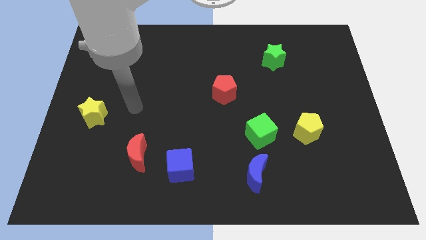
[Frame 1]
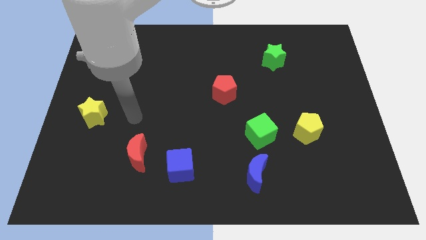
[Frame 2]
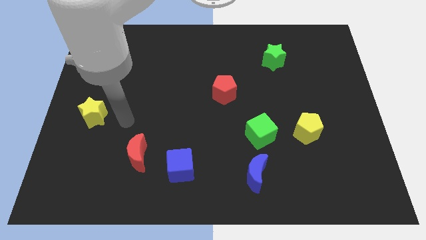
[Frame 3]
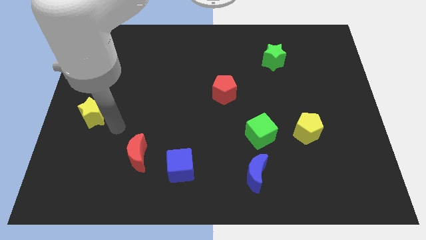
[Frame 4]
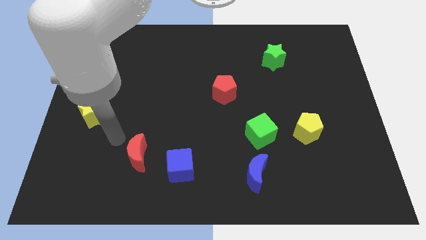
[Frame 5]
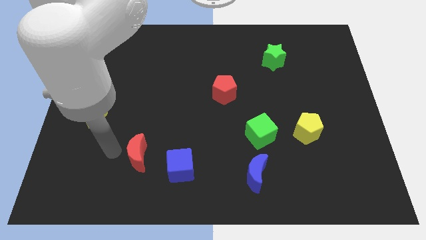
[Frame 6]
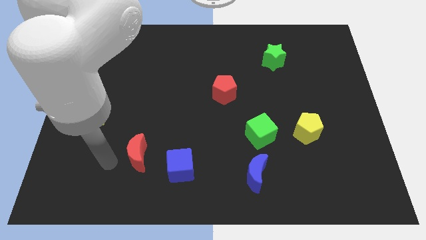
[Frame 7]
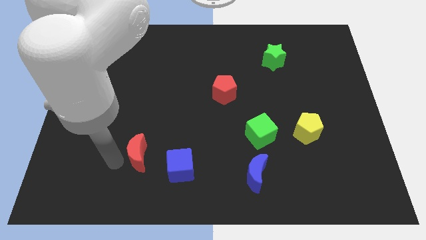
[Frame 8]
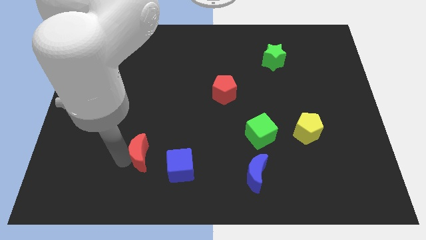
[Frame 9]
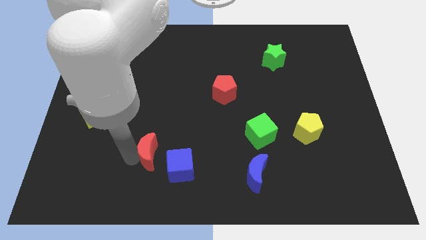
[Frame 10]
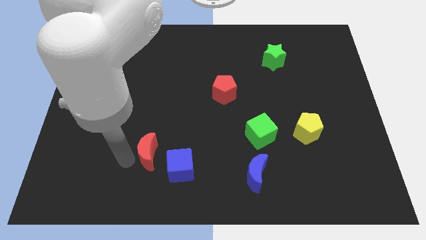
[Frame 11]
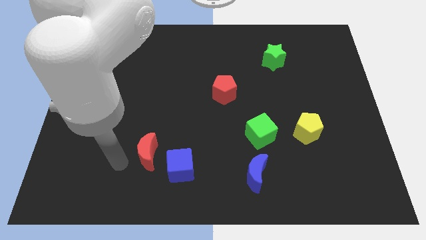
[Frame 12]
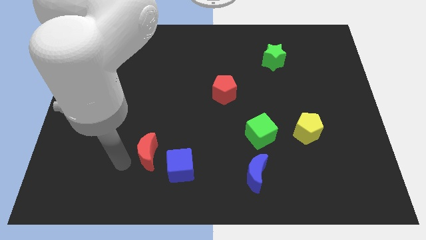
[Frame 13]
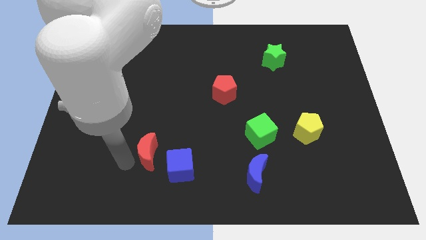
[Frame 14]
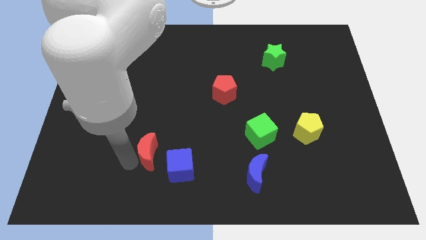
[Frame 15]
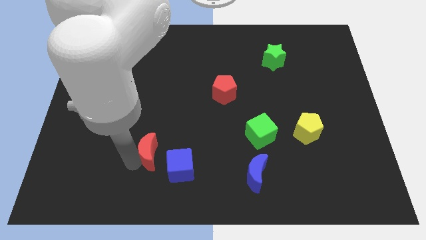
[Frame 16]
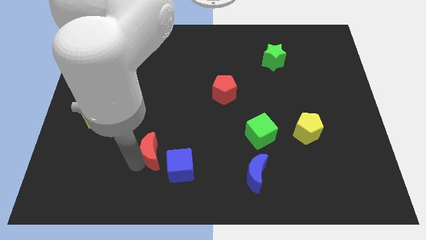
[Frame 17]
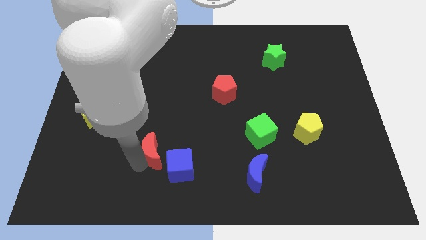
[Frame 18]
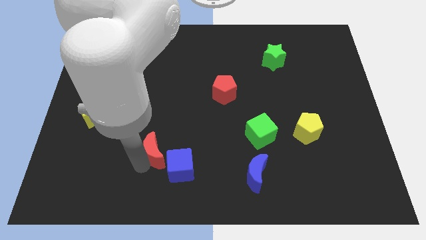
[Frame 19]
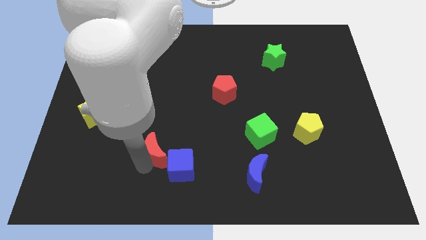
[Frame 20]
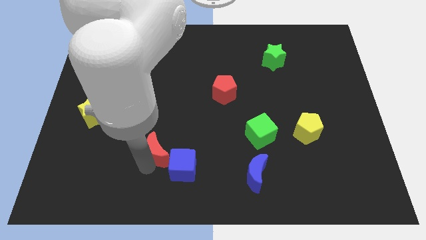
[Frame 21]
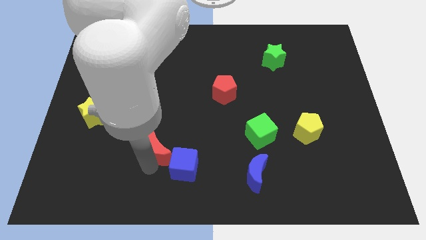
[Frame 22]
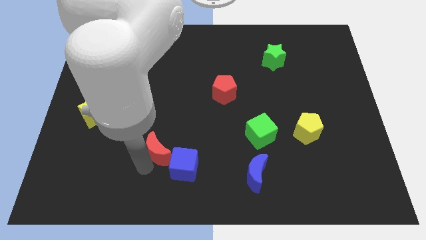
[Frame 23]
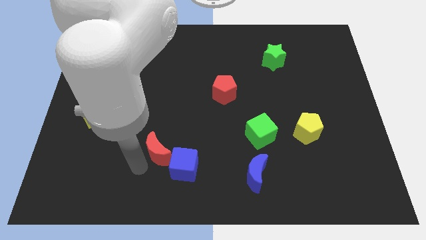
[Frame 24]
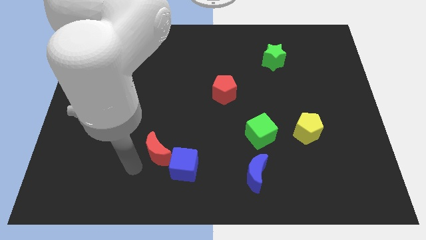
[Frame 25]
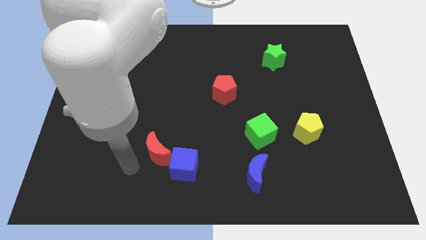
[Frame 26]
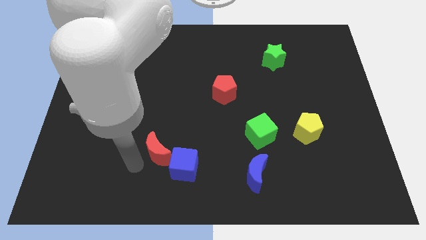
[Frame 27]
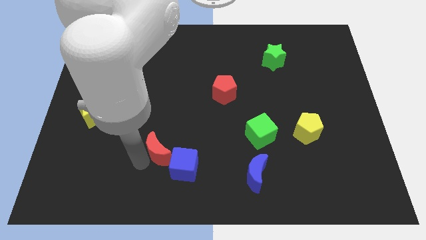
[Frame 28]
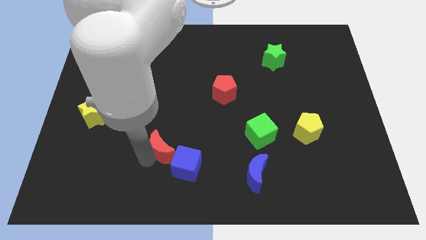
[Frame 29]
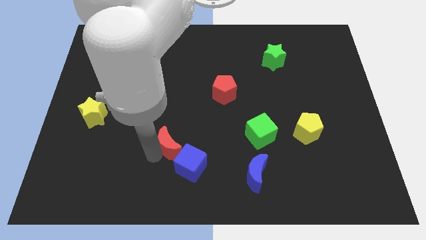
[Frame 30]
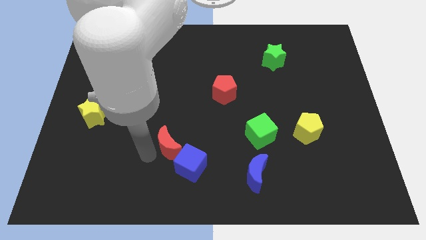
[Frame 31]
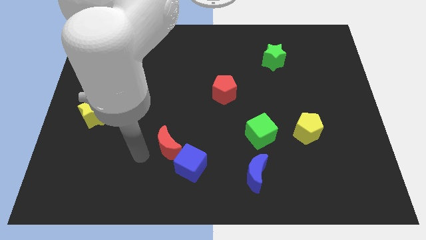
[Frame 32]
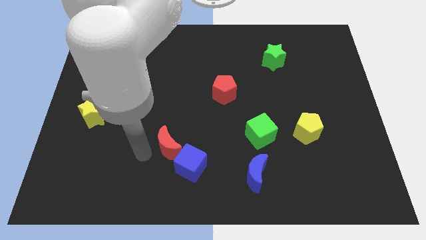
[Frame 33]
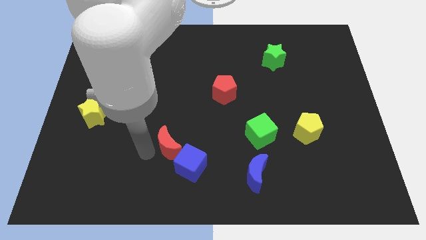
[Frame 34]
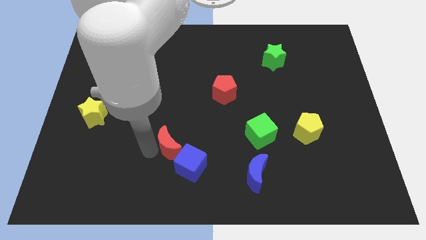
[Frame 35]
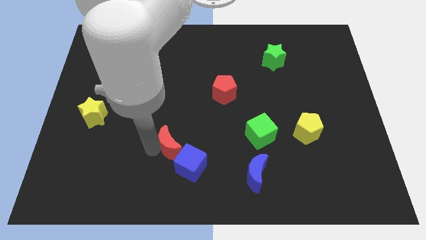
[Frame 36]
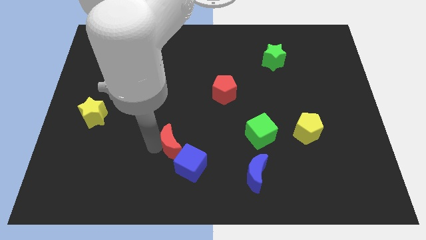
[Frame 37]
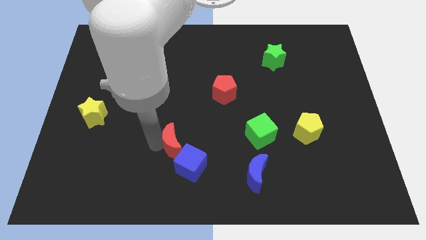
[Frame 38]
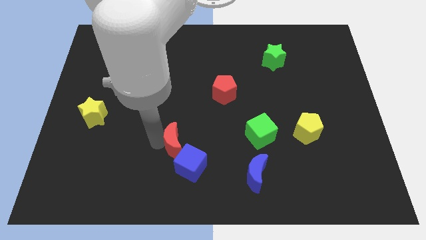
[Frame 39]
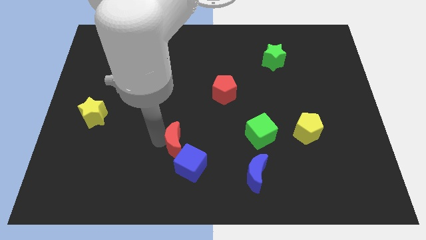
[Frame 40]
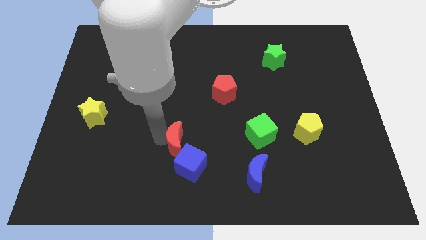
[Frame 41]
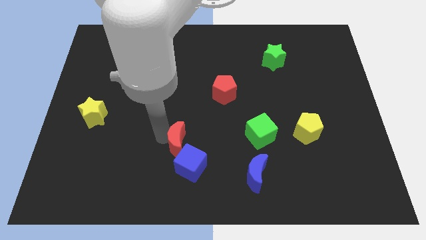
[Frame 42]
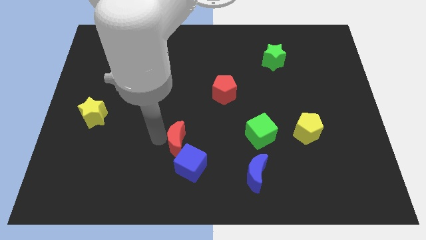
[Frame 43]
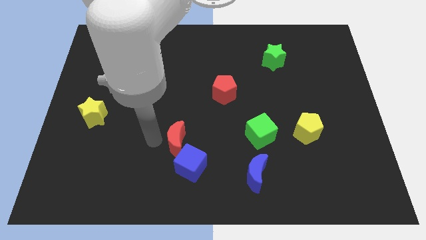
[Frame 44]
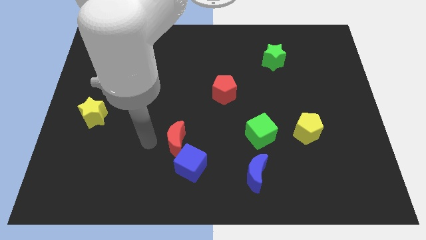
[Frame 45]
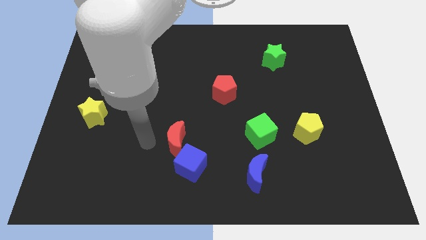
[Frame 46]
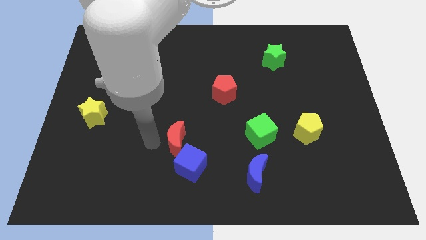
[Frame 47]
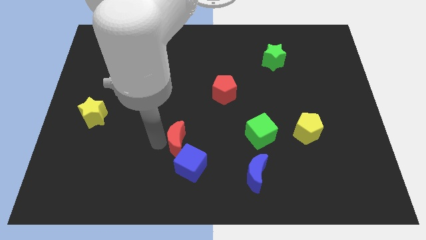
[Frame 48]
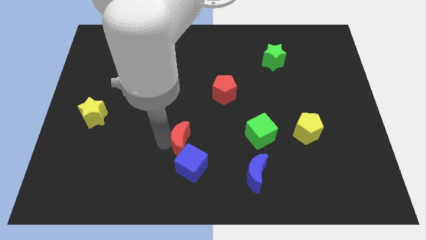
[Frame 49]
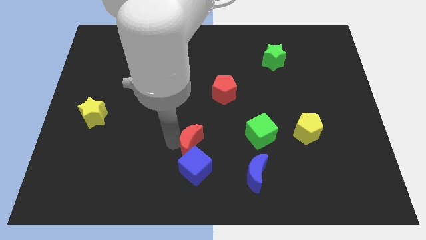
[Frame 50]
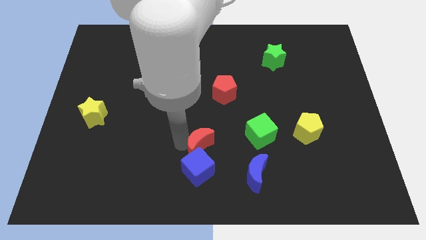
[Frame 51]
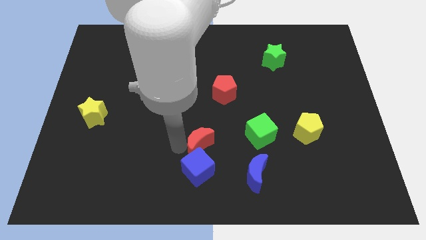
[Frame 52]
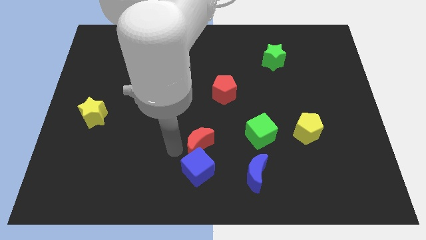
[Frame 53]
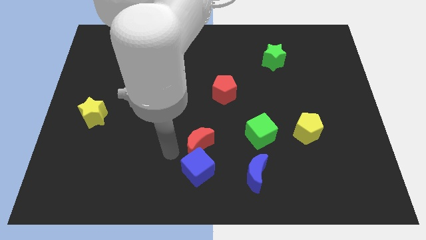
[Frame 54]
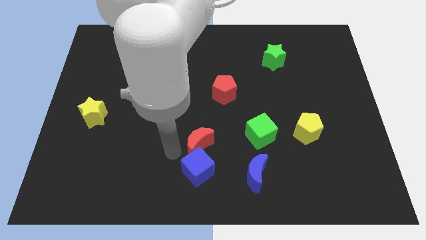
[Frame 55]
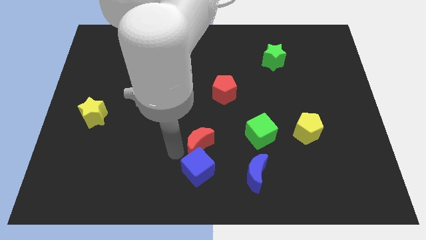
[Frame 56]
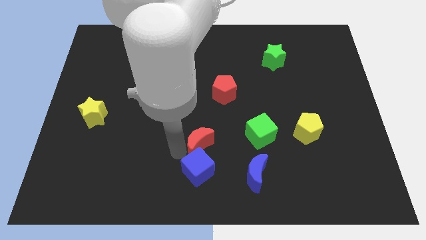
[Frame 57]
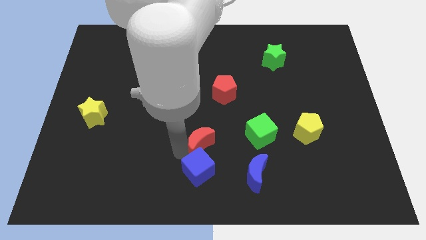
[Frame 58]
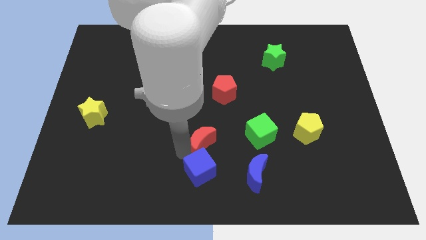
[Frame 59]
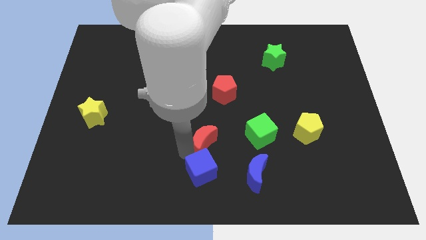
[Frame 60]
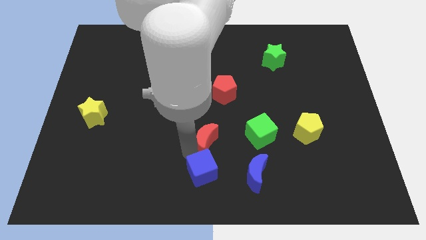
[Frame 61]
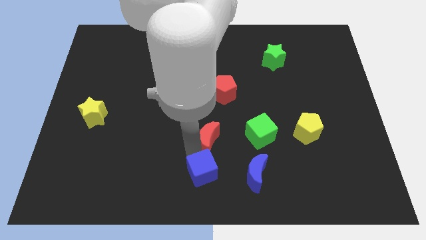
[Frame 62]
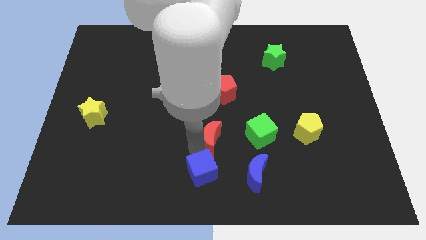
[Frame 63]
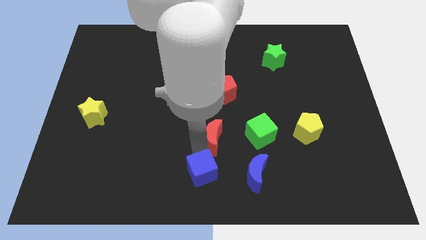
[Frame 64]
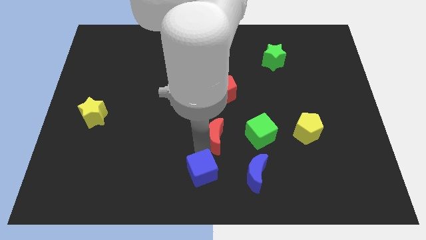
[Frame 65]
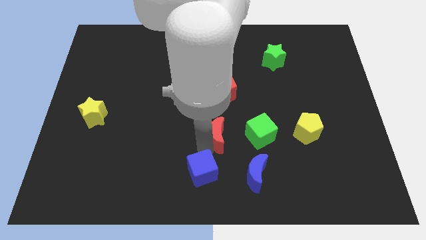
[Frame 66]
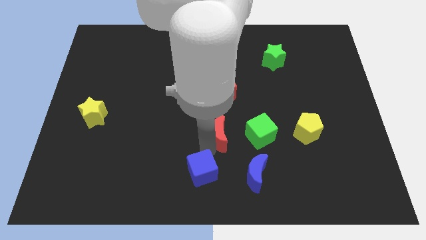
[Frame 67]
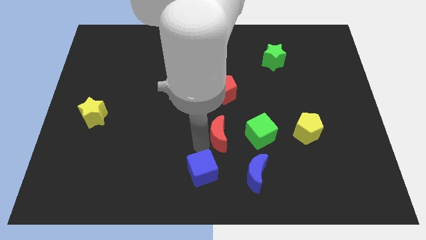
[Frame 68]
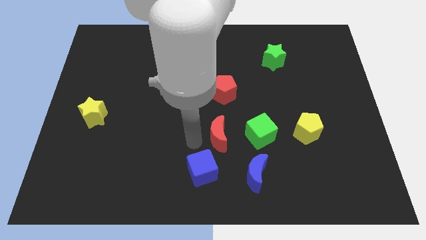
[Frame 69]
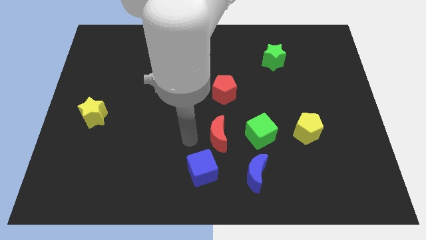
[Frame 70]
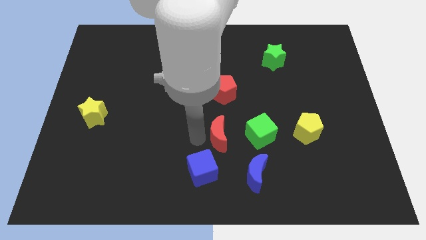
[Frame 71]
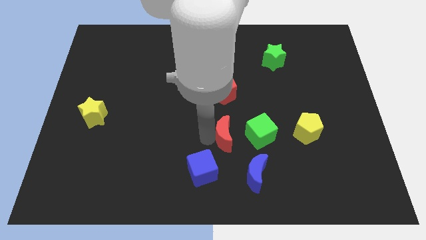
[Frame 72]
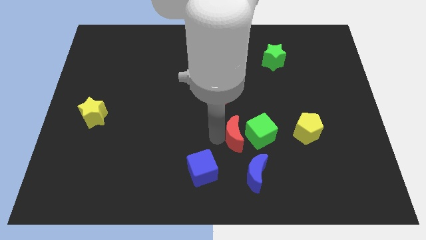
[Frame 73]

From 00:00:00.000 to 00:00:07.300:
put the red moon next to the green cube

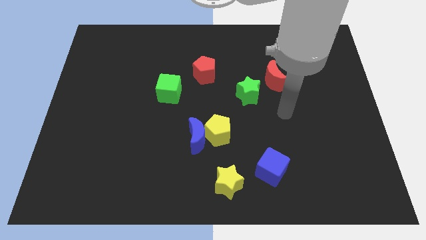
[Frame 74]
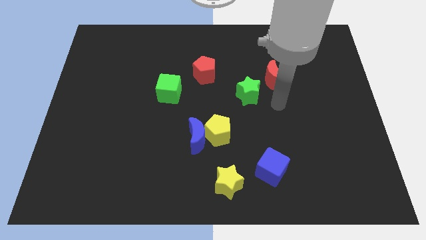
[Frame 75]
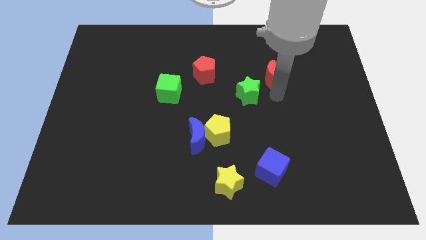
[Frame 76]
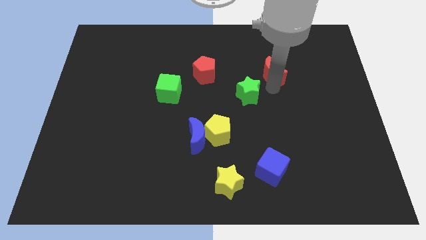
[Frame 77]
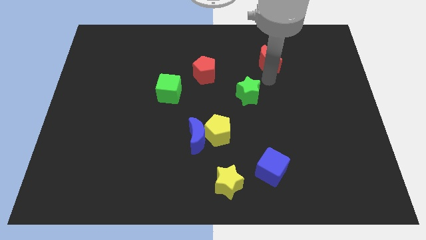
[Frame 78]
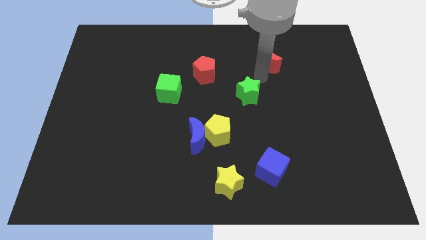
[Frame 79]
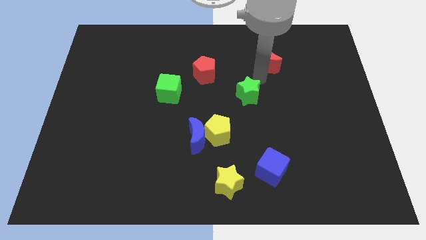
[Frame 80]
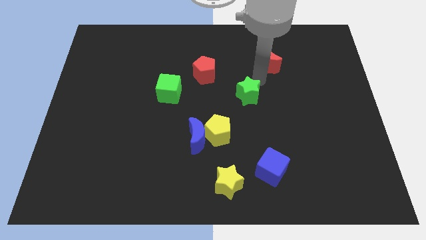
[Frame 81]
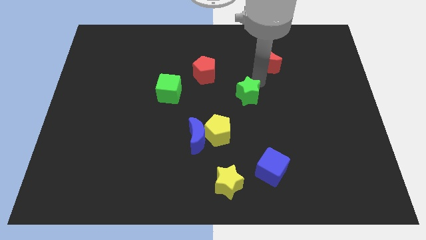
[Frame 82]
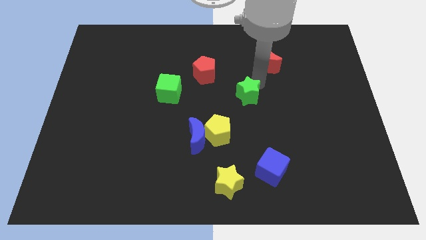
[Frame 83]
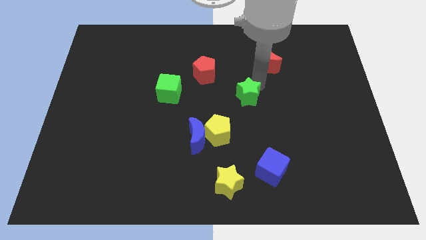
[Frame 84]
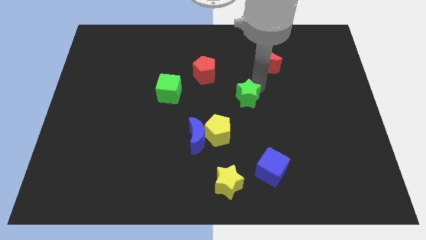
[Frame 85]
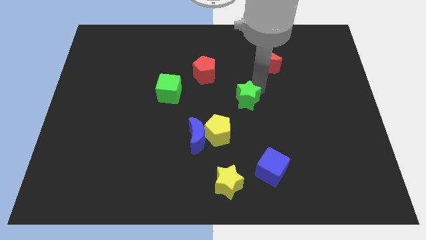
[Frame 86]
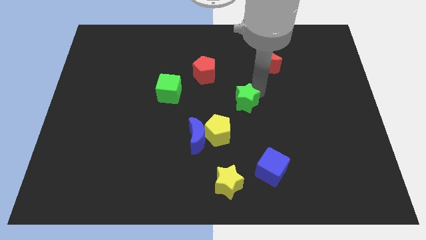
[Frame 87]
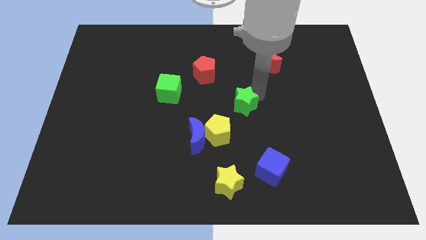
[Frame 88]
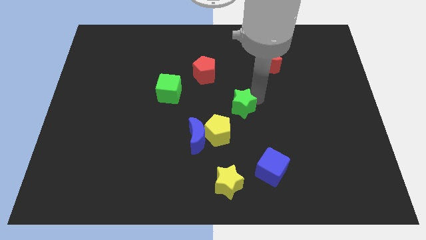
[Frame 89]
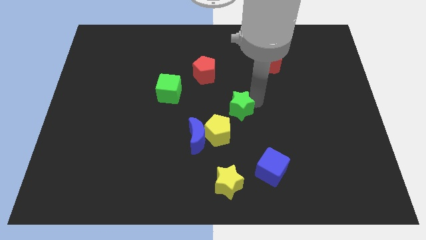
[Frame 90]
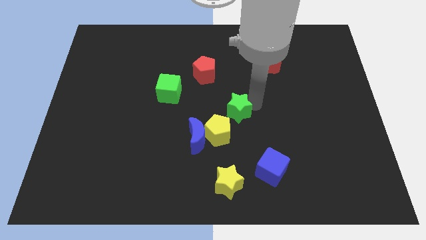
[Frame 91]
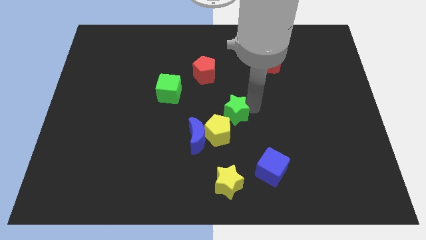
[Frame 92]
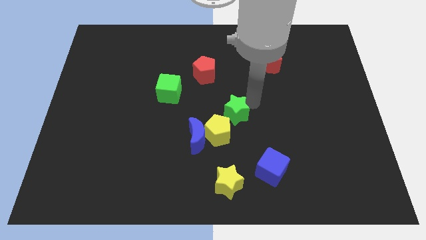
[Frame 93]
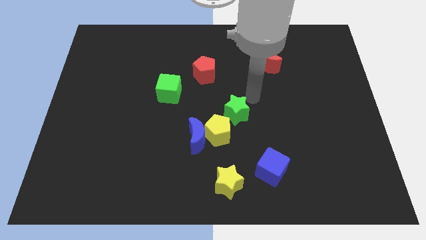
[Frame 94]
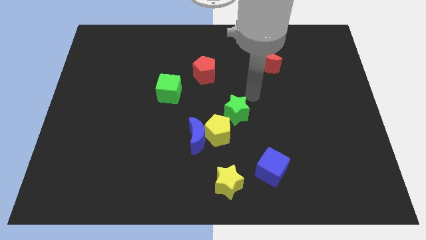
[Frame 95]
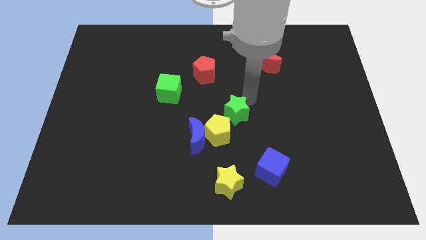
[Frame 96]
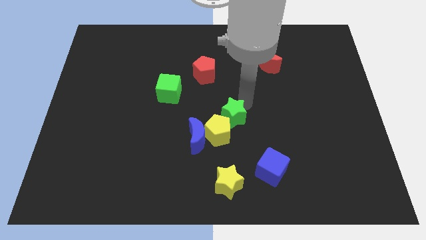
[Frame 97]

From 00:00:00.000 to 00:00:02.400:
slide the green star towards the yellow pentagon
